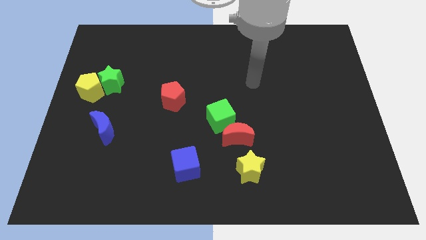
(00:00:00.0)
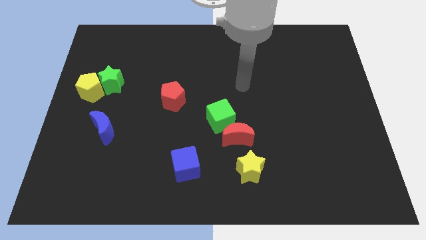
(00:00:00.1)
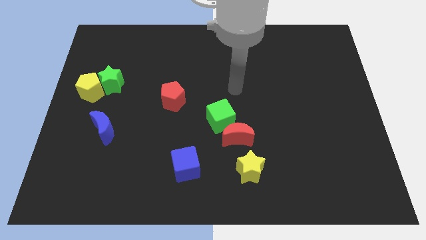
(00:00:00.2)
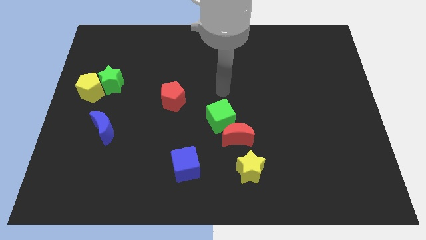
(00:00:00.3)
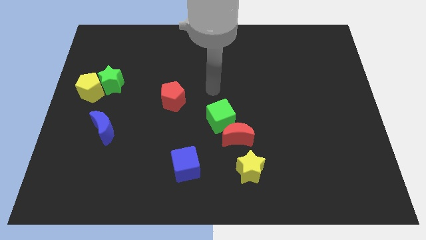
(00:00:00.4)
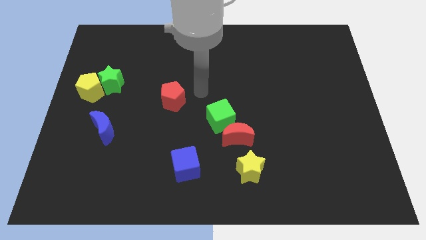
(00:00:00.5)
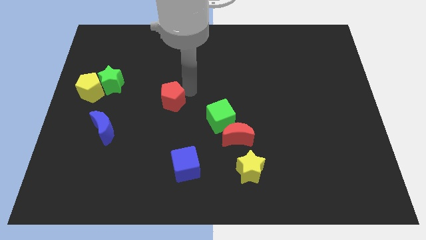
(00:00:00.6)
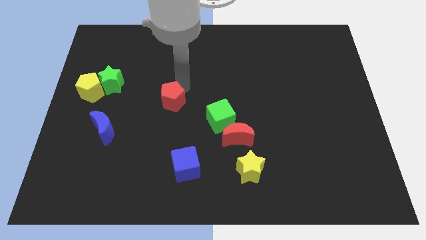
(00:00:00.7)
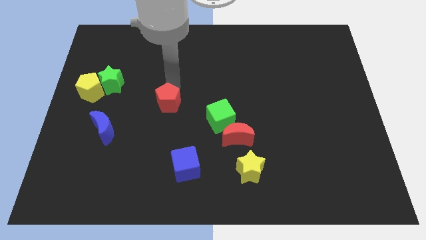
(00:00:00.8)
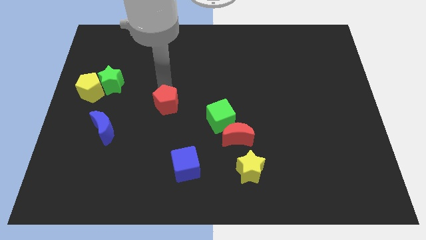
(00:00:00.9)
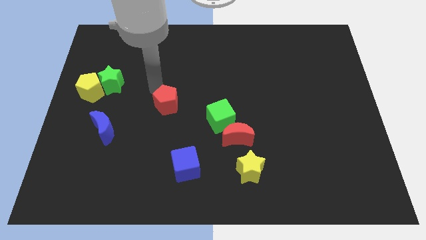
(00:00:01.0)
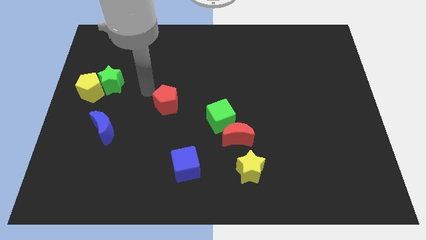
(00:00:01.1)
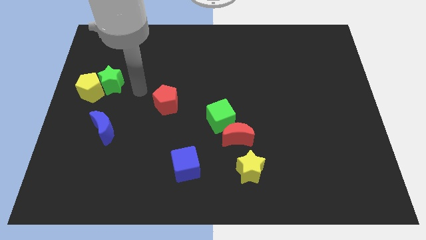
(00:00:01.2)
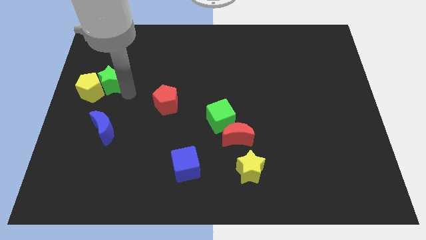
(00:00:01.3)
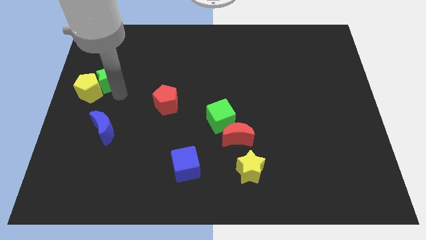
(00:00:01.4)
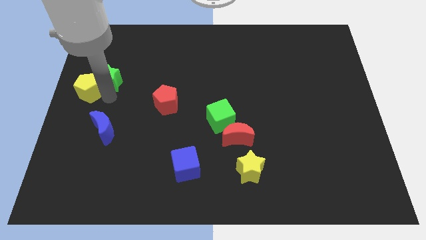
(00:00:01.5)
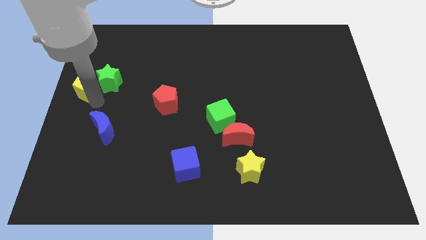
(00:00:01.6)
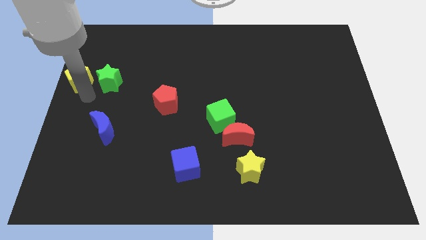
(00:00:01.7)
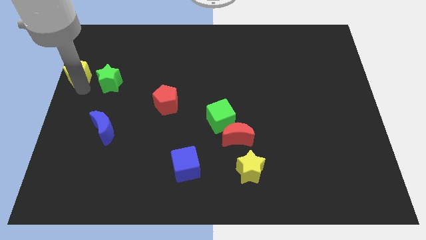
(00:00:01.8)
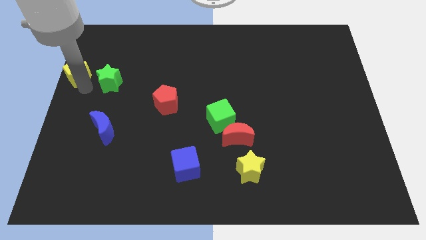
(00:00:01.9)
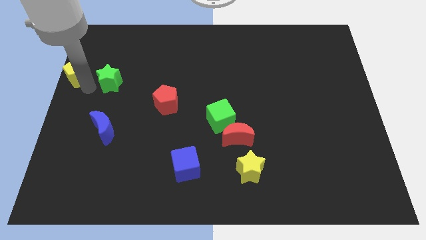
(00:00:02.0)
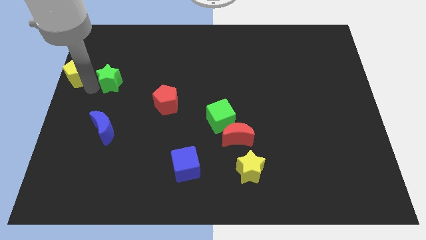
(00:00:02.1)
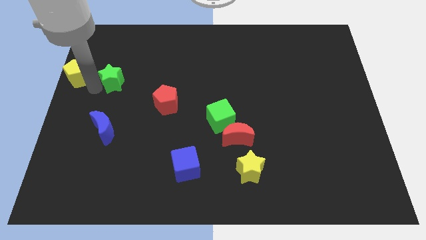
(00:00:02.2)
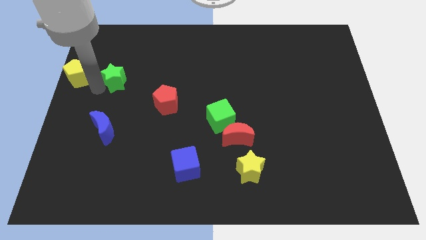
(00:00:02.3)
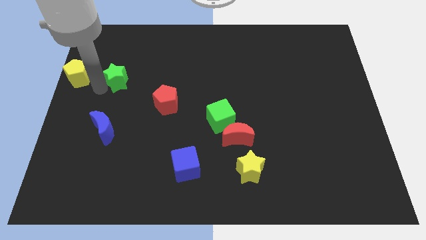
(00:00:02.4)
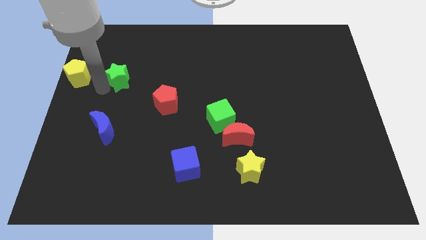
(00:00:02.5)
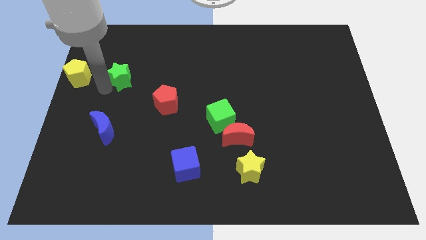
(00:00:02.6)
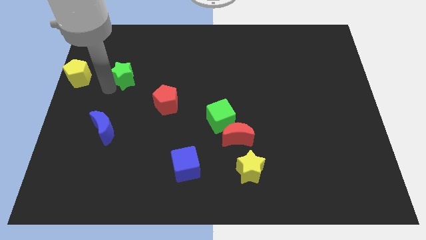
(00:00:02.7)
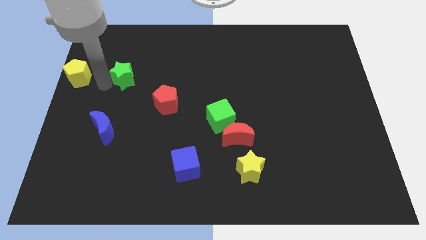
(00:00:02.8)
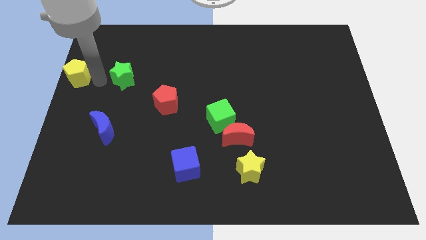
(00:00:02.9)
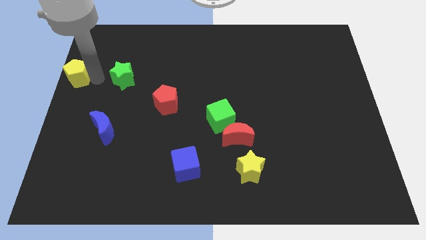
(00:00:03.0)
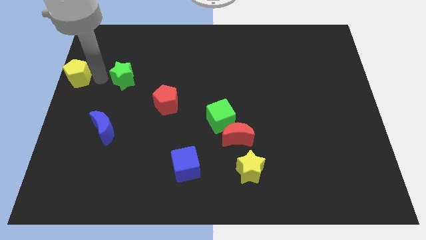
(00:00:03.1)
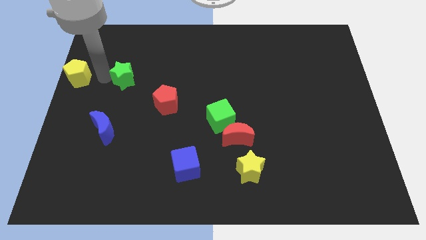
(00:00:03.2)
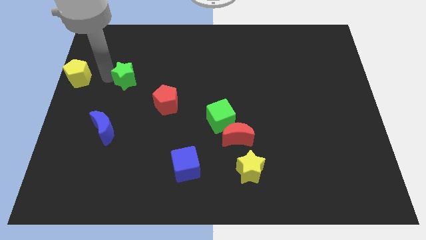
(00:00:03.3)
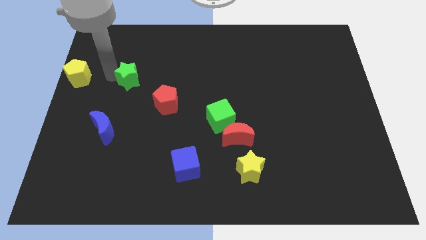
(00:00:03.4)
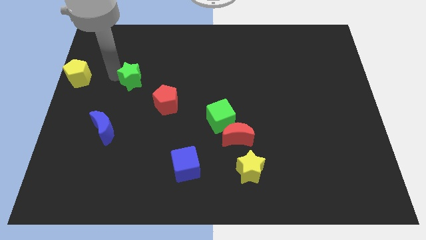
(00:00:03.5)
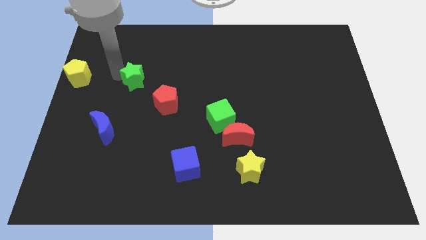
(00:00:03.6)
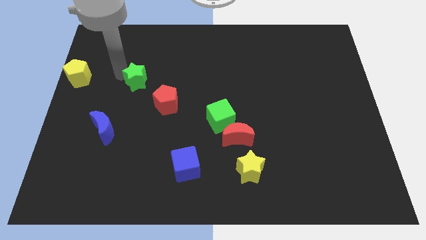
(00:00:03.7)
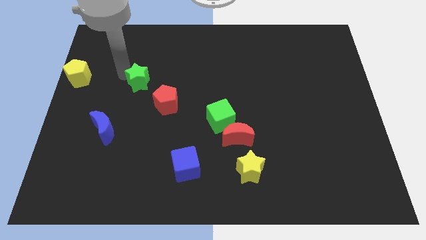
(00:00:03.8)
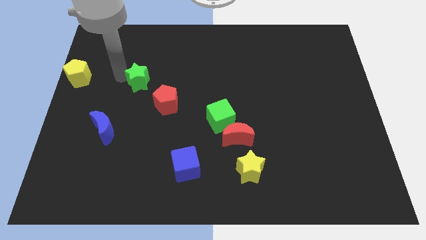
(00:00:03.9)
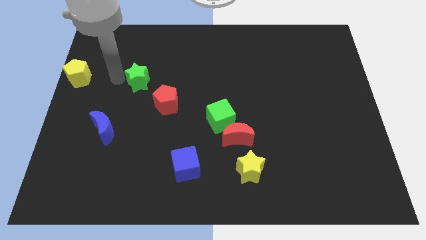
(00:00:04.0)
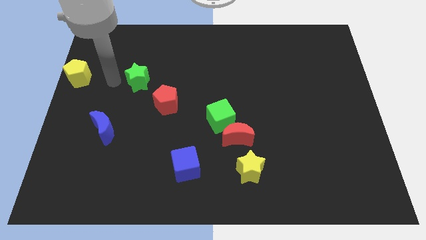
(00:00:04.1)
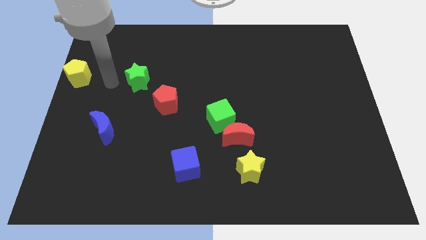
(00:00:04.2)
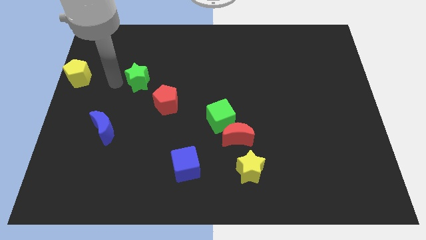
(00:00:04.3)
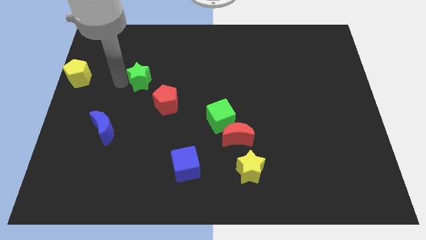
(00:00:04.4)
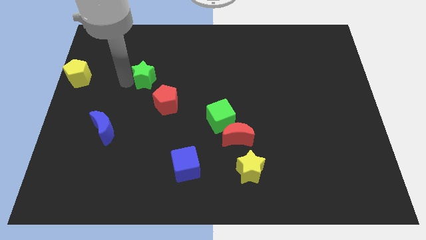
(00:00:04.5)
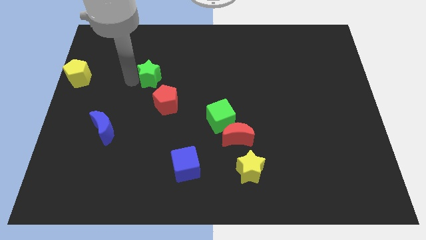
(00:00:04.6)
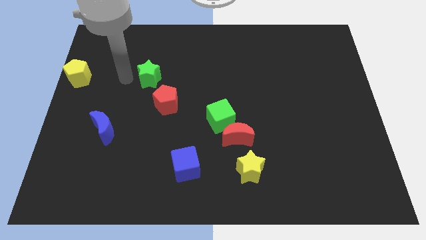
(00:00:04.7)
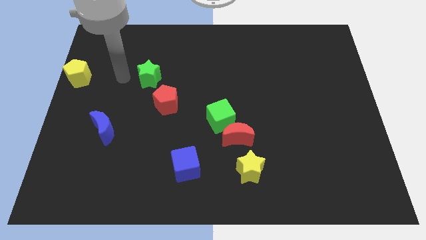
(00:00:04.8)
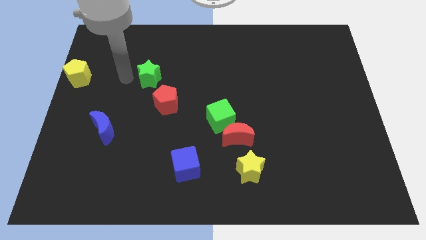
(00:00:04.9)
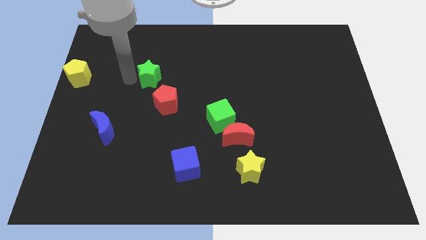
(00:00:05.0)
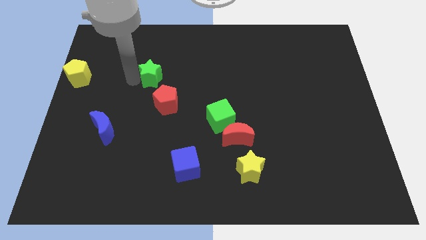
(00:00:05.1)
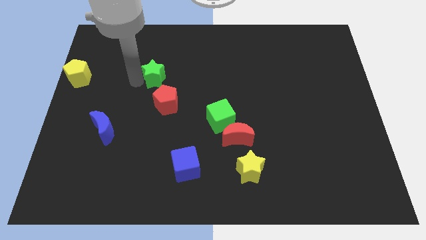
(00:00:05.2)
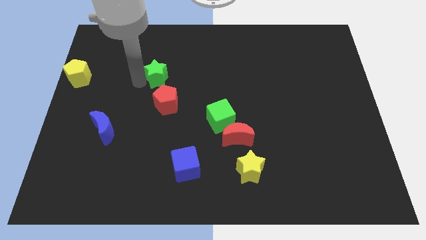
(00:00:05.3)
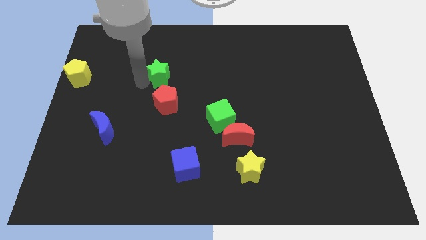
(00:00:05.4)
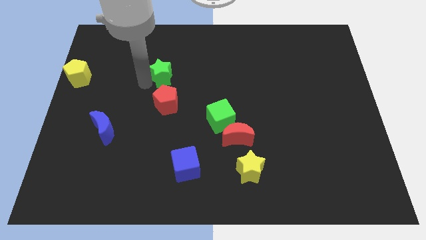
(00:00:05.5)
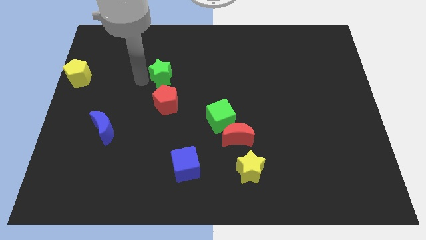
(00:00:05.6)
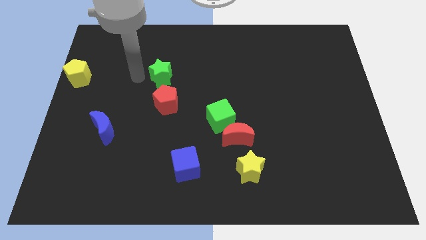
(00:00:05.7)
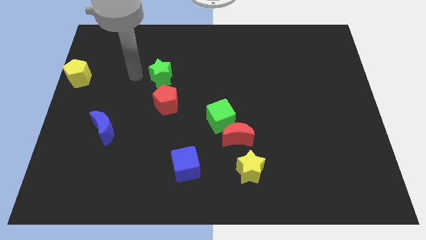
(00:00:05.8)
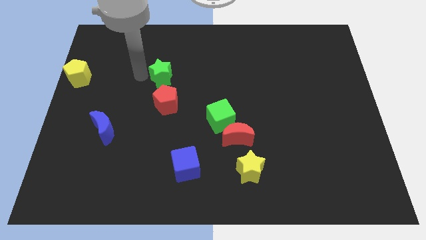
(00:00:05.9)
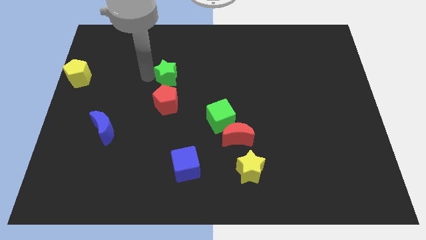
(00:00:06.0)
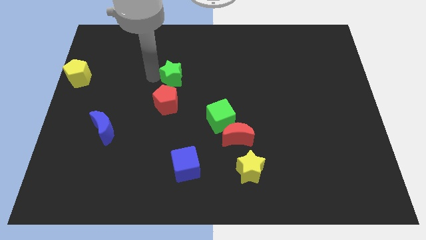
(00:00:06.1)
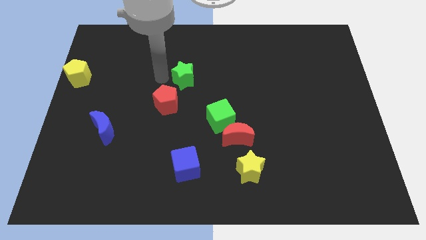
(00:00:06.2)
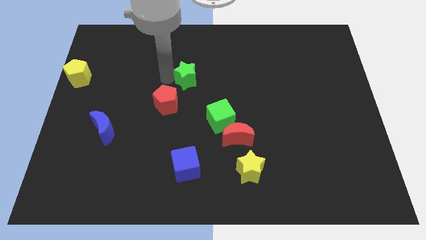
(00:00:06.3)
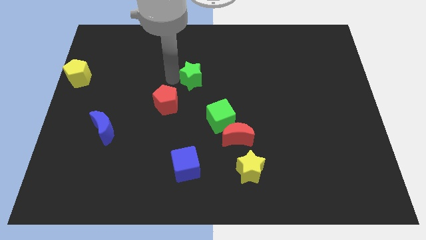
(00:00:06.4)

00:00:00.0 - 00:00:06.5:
push the green star right

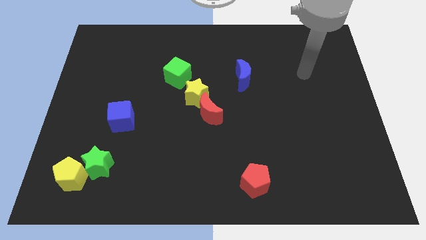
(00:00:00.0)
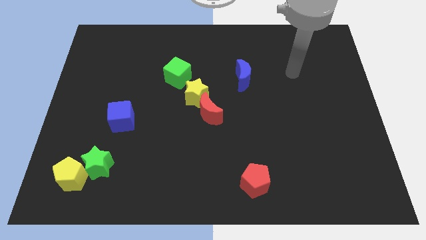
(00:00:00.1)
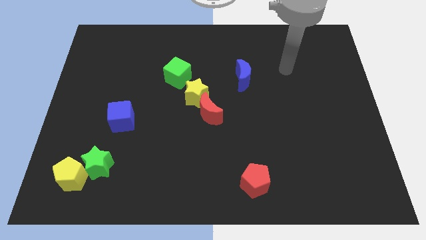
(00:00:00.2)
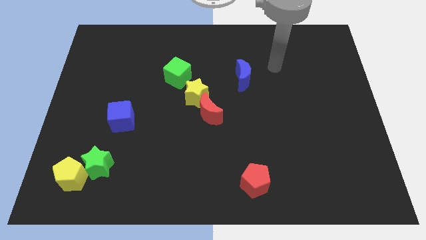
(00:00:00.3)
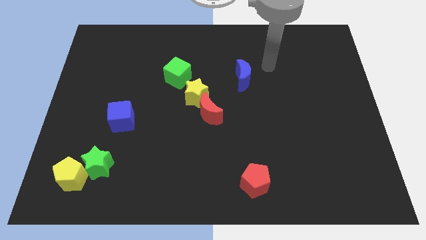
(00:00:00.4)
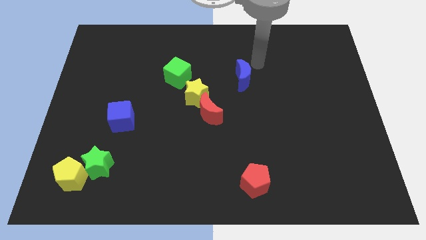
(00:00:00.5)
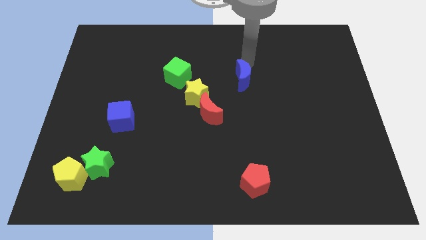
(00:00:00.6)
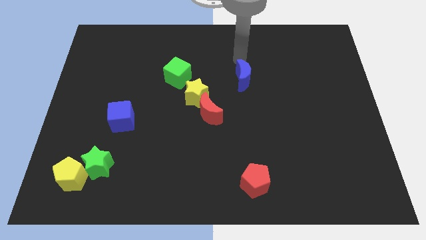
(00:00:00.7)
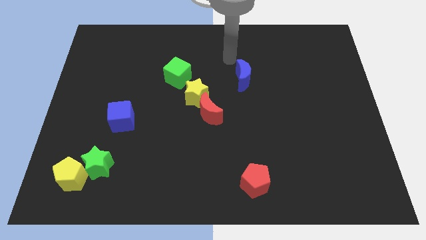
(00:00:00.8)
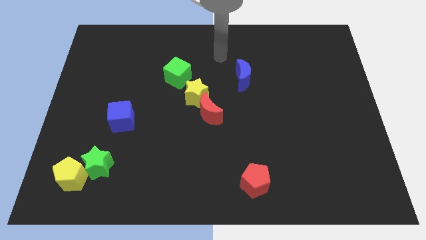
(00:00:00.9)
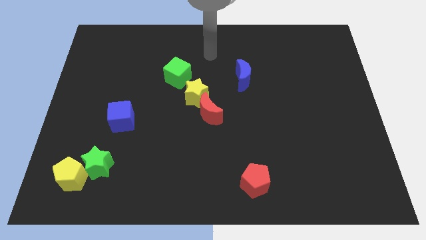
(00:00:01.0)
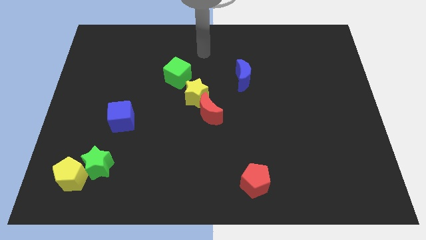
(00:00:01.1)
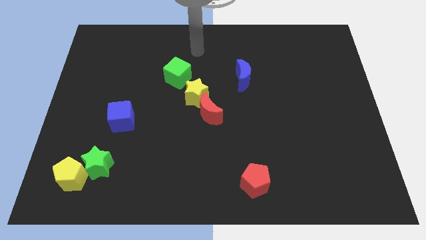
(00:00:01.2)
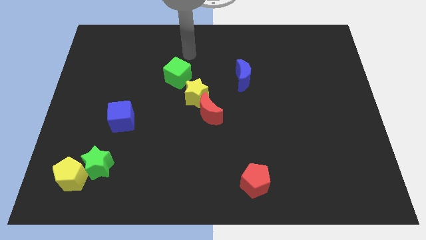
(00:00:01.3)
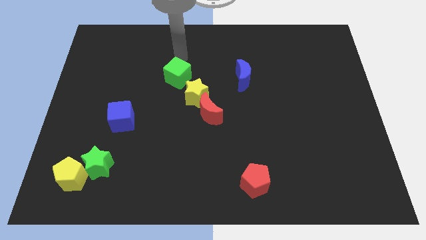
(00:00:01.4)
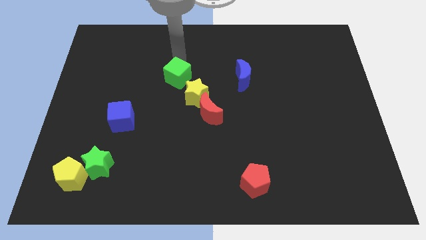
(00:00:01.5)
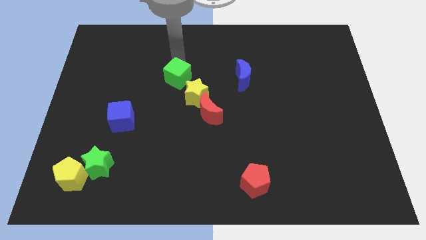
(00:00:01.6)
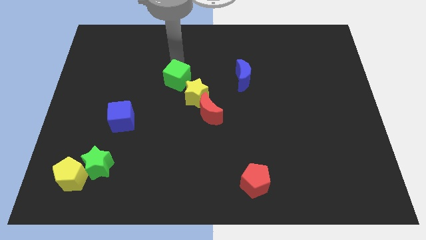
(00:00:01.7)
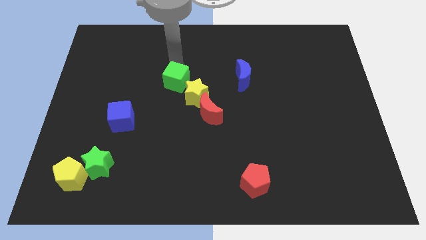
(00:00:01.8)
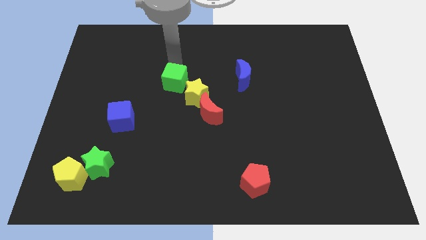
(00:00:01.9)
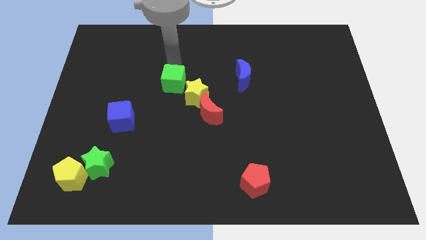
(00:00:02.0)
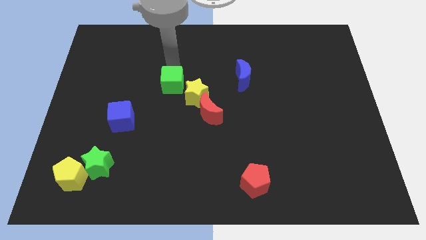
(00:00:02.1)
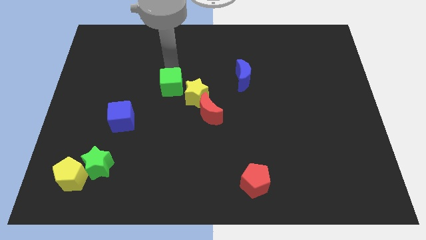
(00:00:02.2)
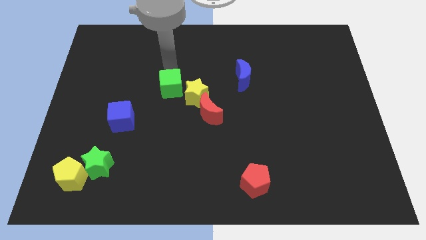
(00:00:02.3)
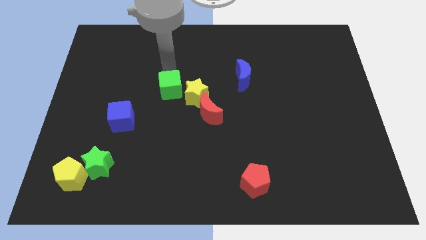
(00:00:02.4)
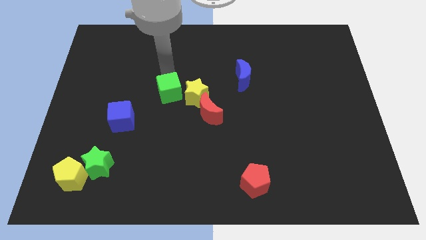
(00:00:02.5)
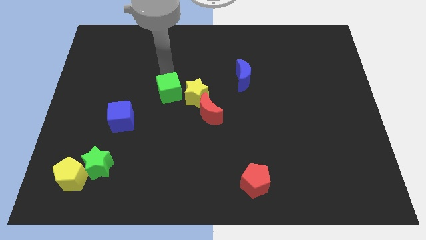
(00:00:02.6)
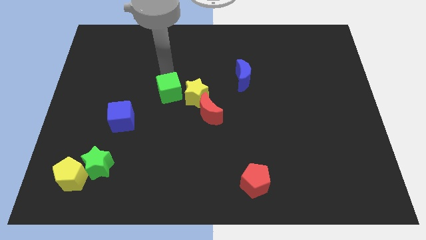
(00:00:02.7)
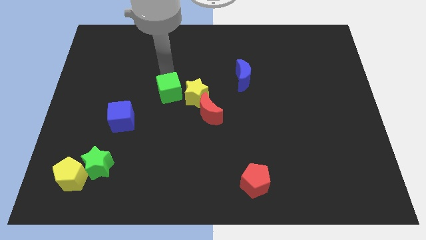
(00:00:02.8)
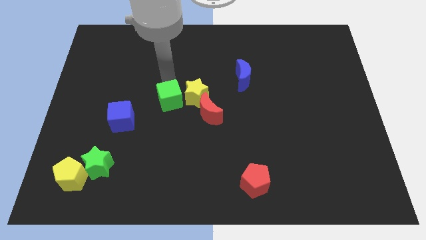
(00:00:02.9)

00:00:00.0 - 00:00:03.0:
push the green cube slightly down
